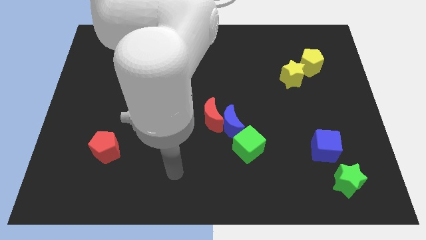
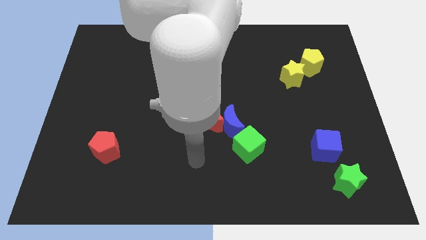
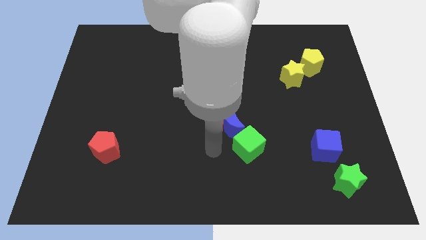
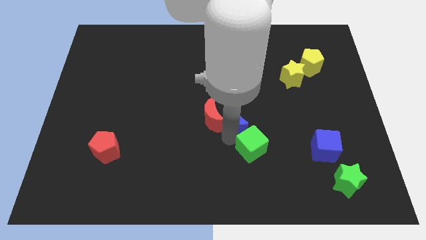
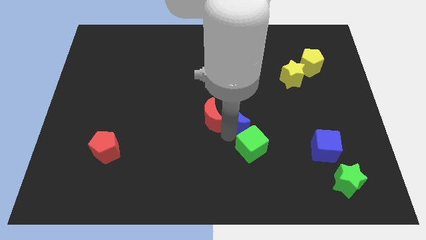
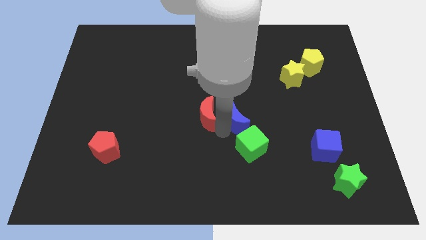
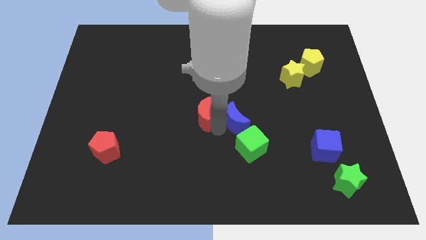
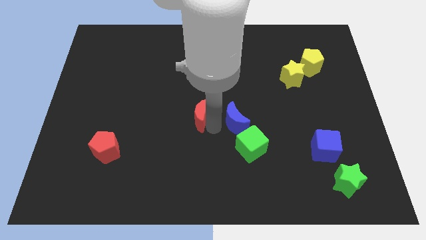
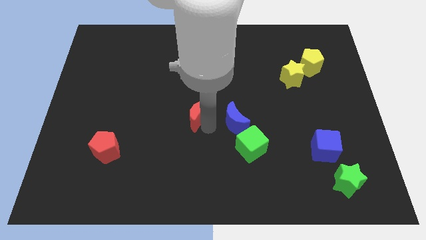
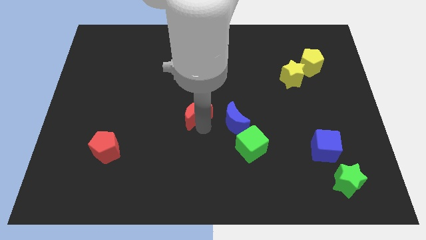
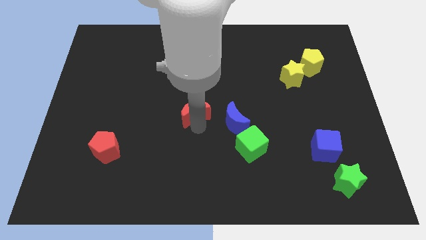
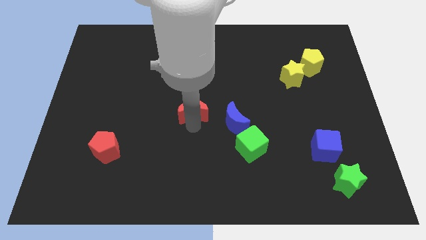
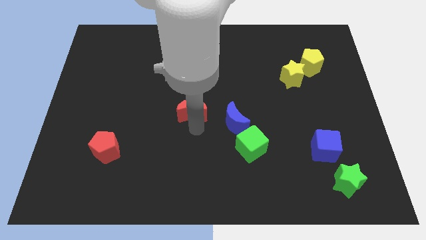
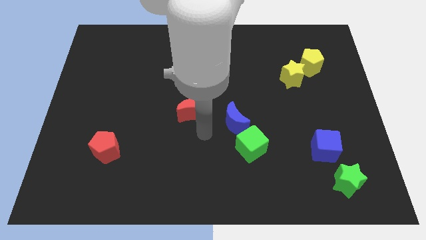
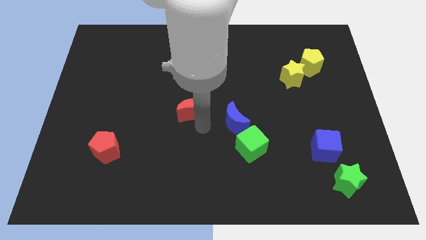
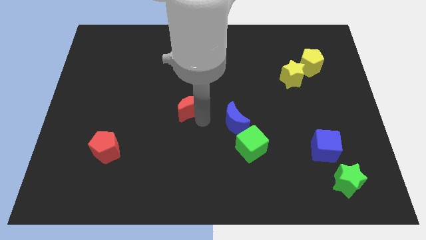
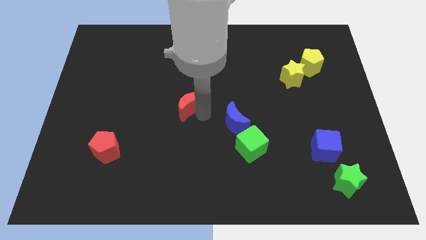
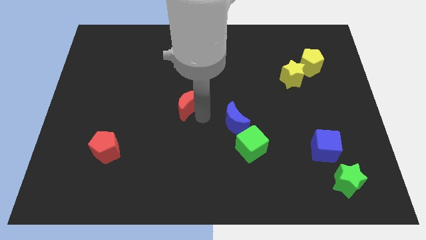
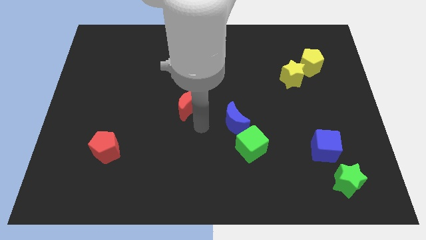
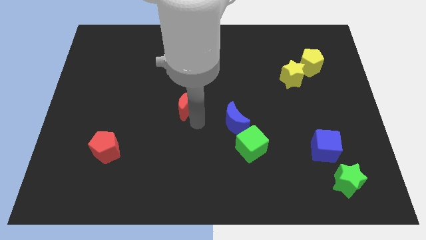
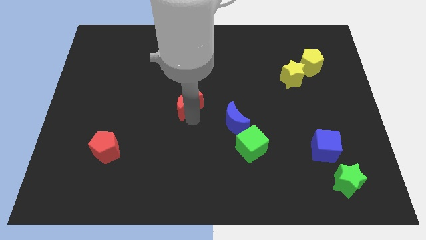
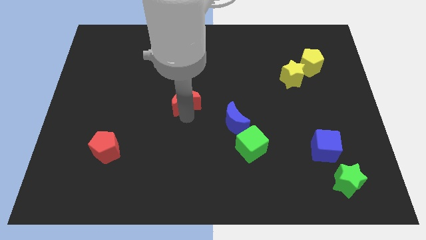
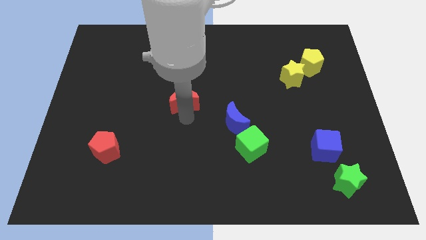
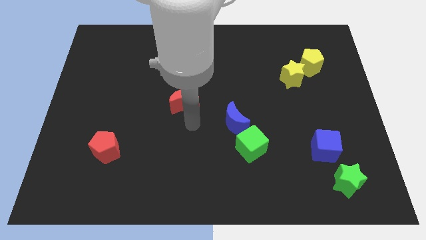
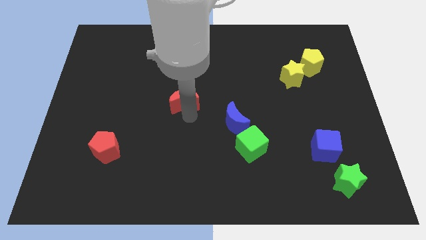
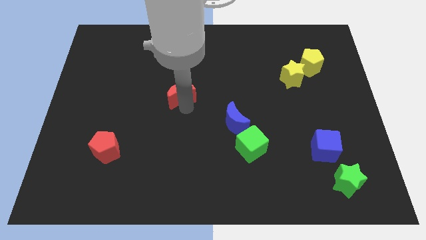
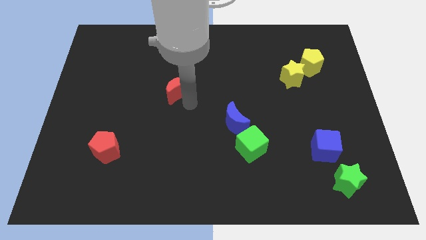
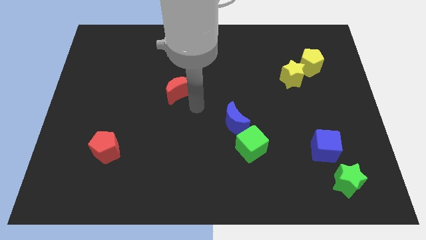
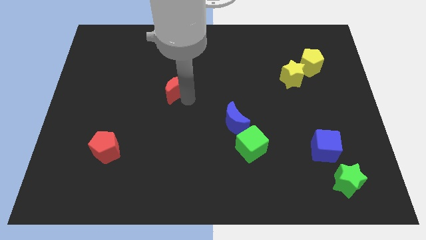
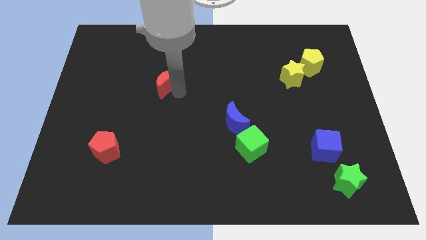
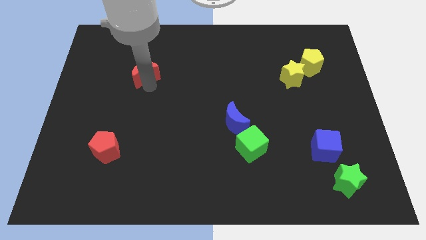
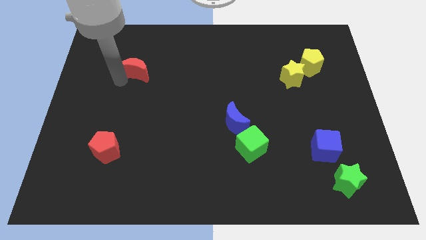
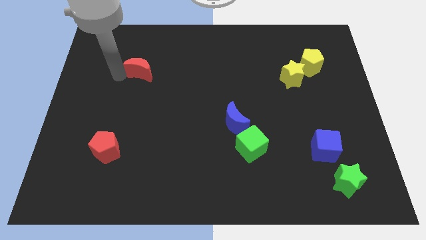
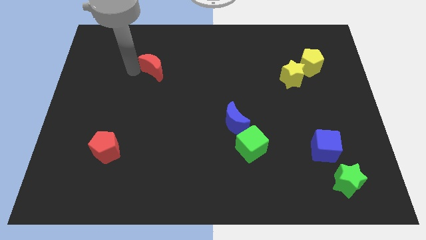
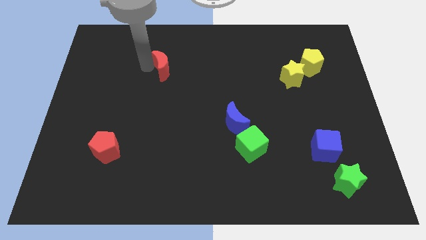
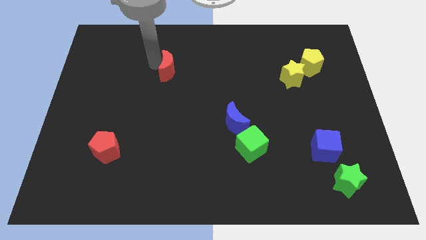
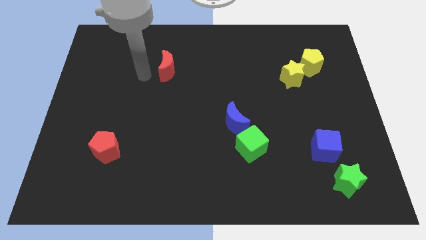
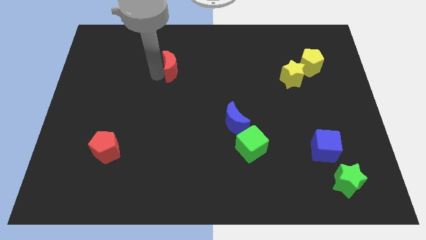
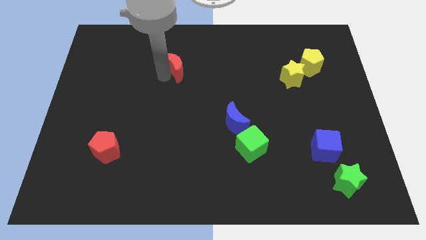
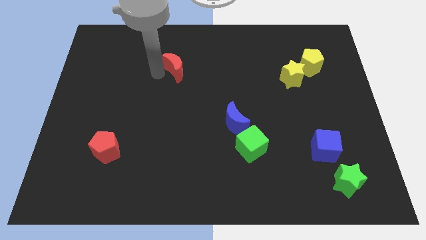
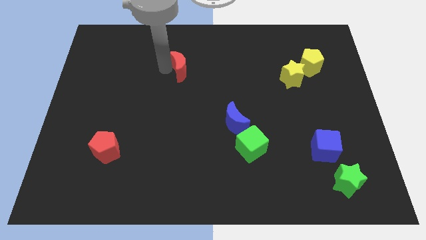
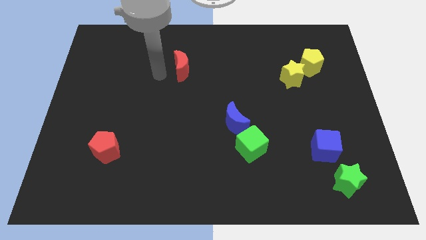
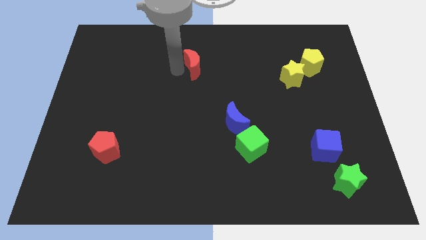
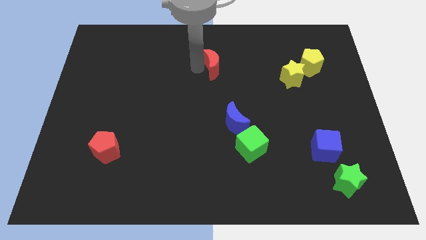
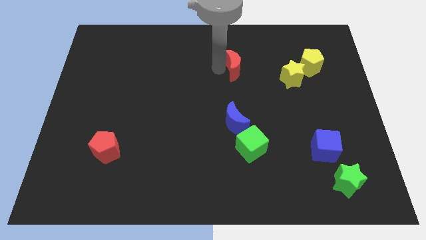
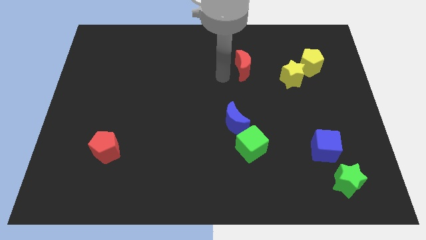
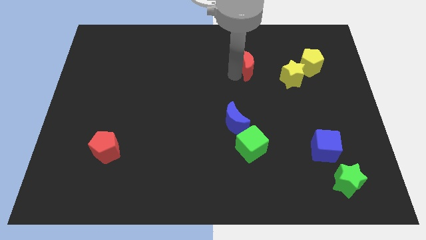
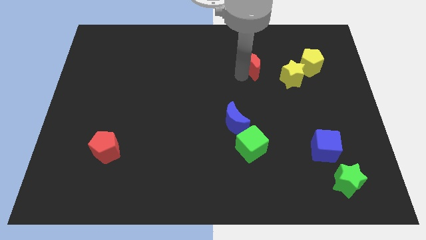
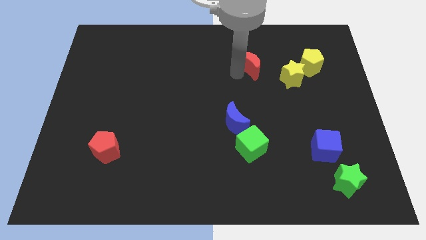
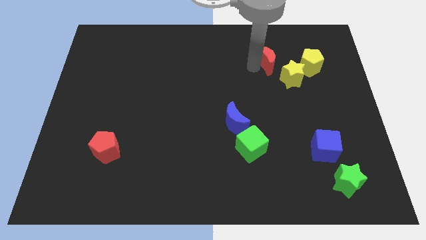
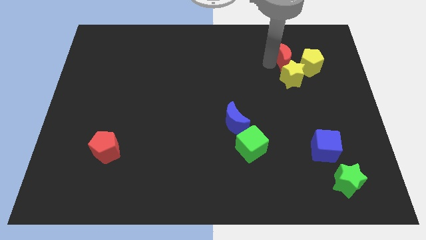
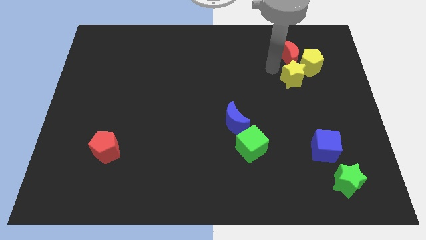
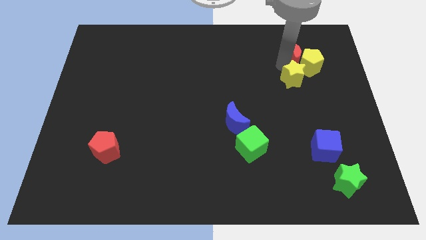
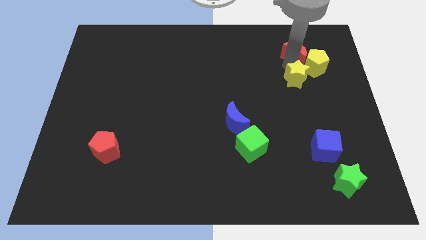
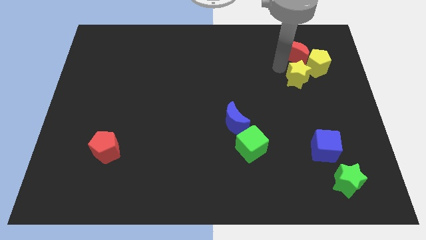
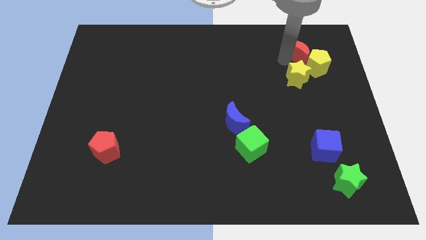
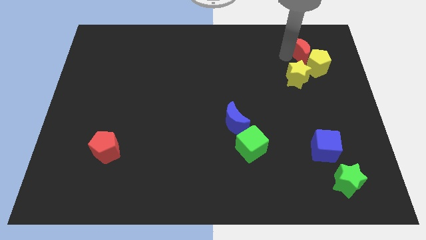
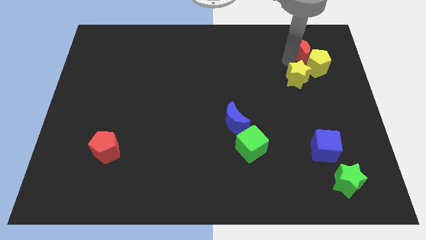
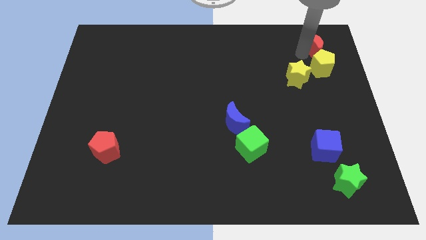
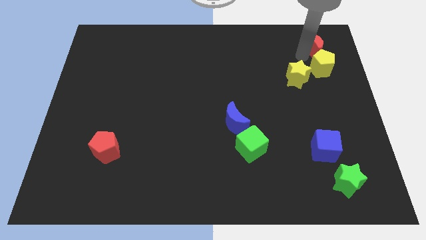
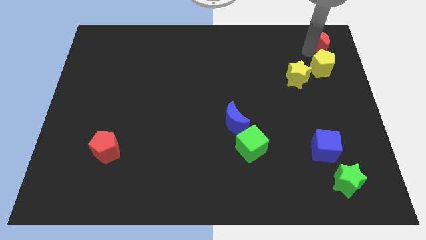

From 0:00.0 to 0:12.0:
move the red moon to the upper right corner
